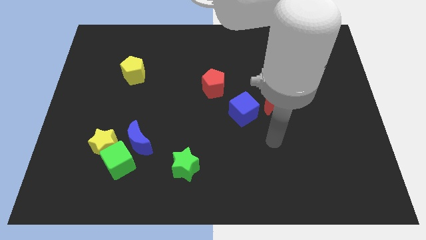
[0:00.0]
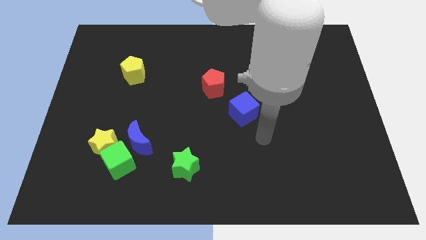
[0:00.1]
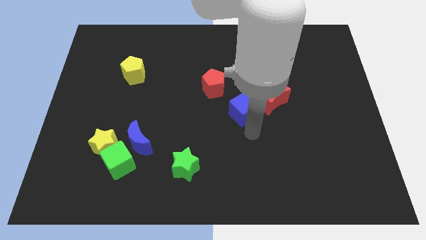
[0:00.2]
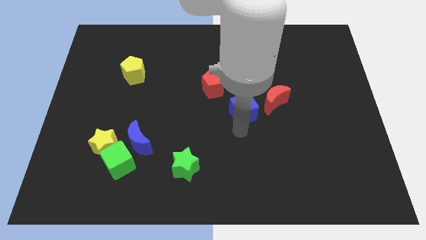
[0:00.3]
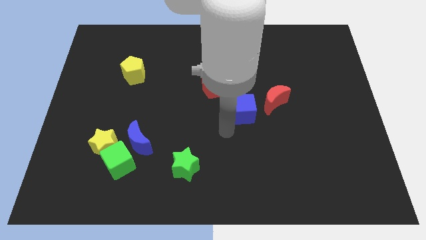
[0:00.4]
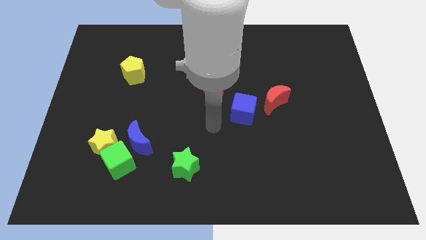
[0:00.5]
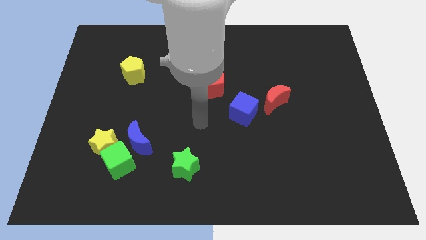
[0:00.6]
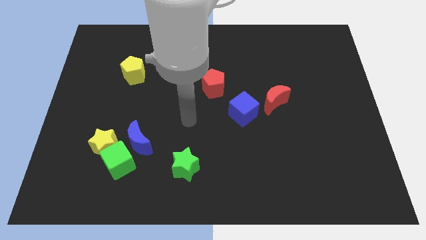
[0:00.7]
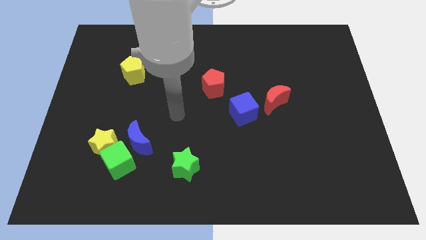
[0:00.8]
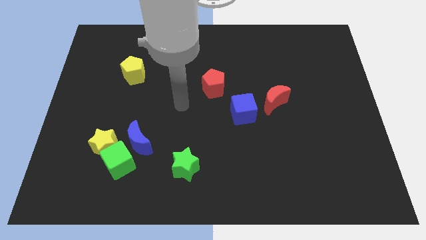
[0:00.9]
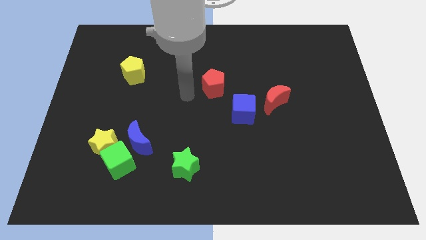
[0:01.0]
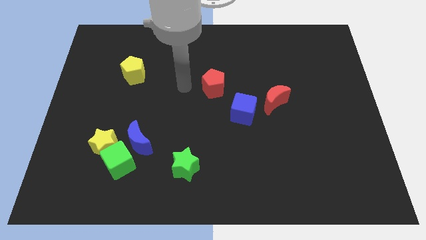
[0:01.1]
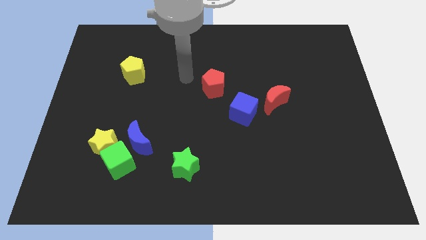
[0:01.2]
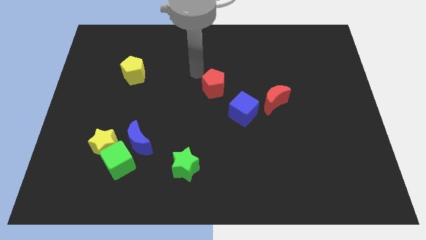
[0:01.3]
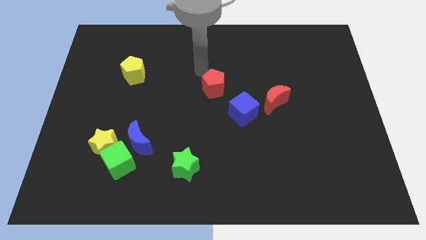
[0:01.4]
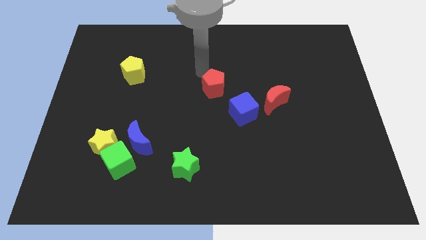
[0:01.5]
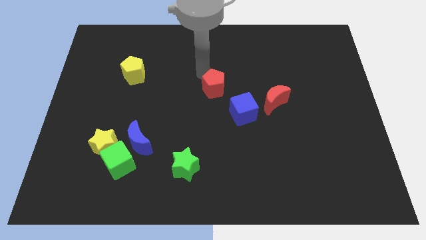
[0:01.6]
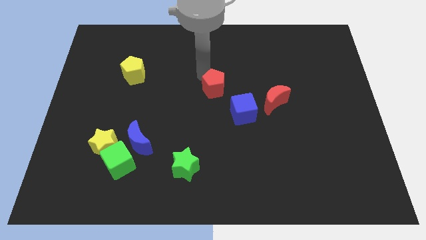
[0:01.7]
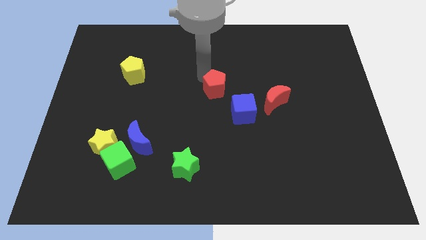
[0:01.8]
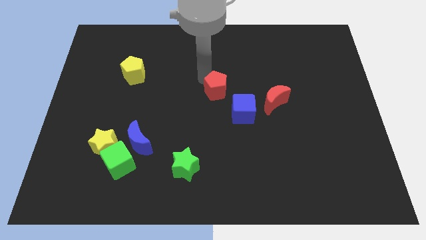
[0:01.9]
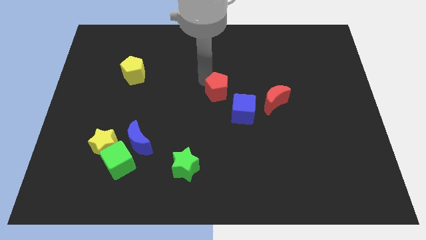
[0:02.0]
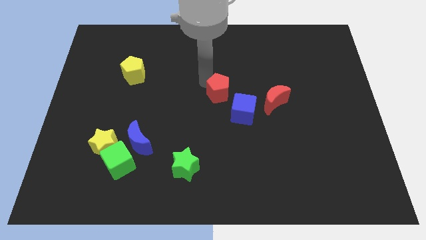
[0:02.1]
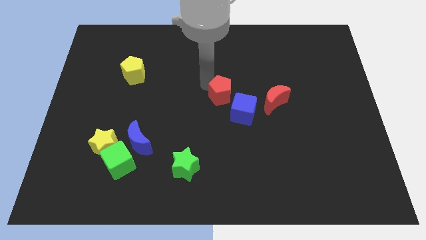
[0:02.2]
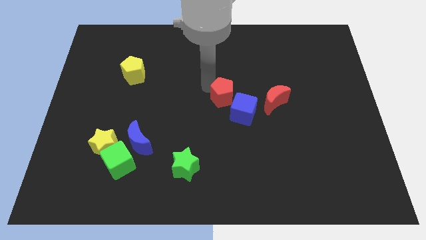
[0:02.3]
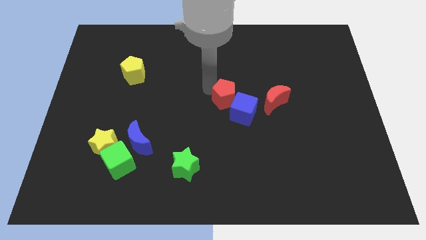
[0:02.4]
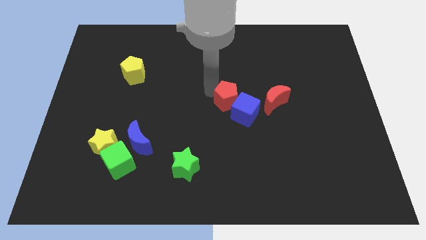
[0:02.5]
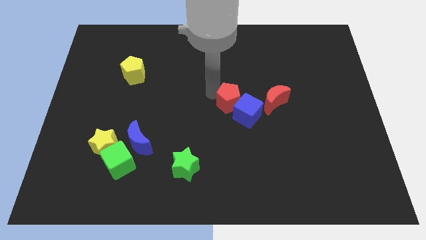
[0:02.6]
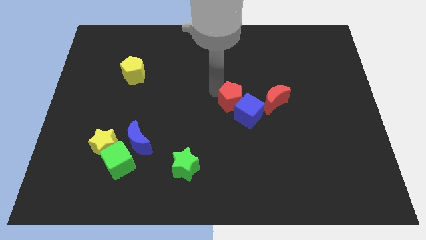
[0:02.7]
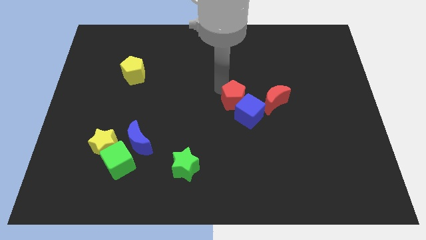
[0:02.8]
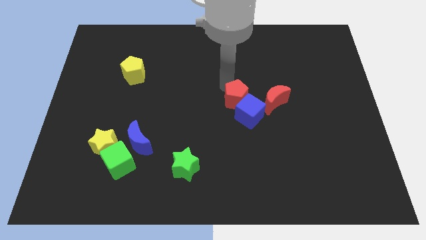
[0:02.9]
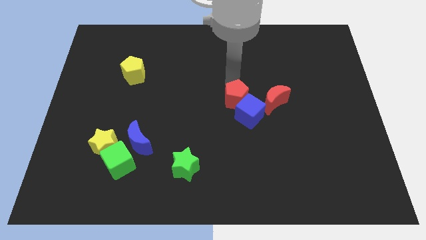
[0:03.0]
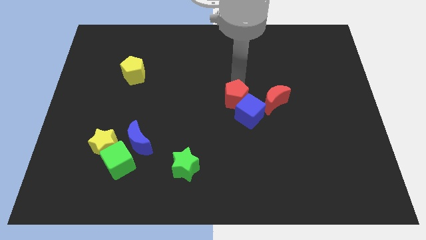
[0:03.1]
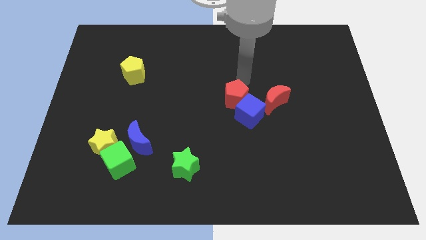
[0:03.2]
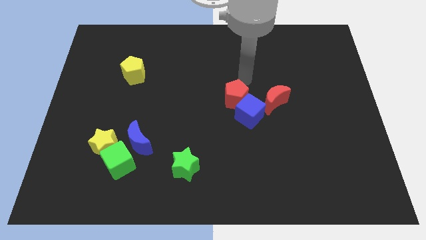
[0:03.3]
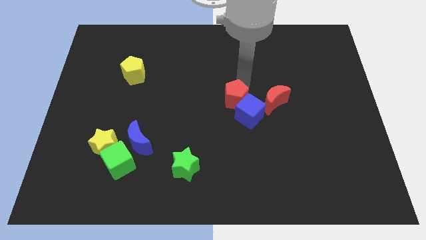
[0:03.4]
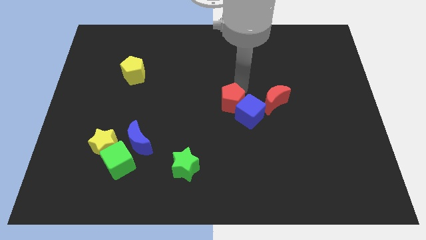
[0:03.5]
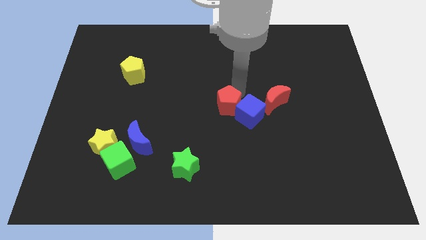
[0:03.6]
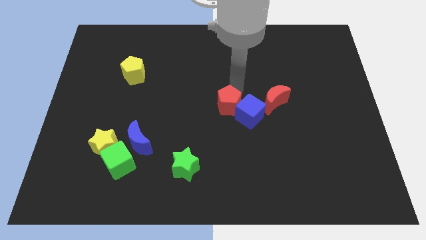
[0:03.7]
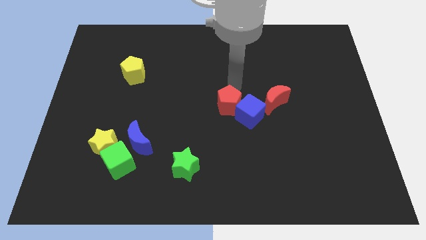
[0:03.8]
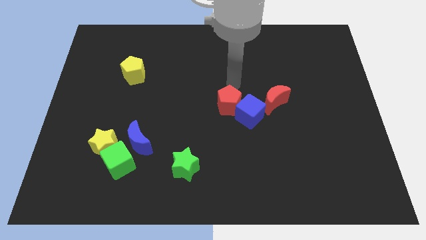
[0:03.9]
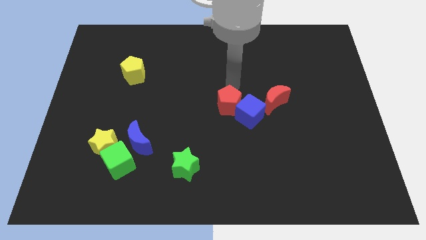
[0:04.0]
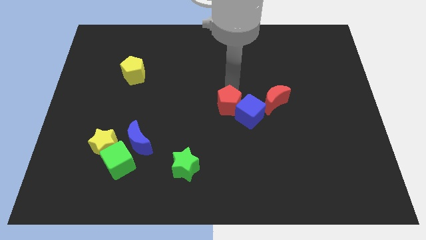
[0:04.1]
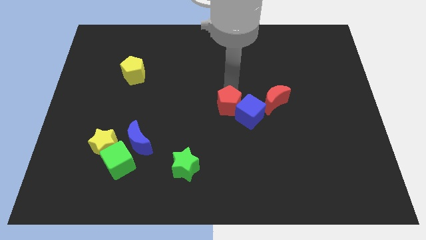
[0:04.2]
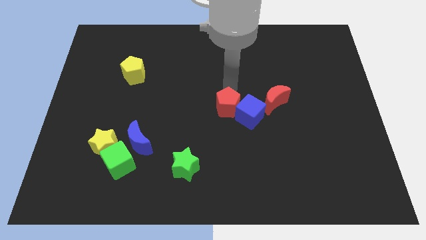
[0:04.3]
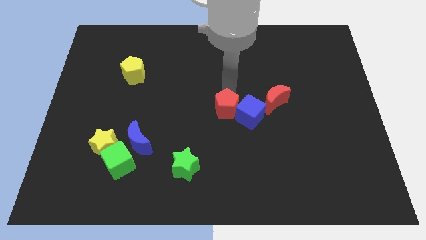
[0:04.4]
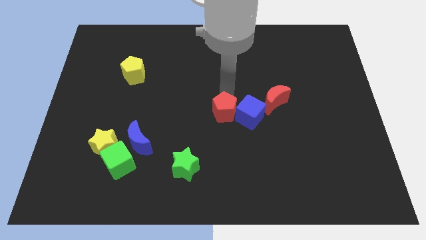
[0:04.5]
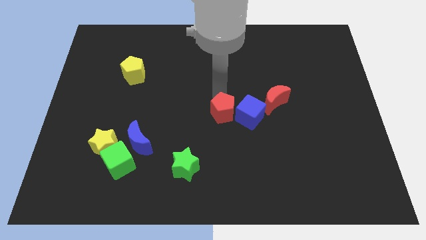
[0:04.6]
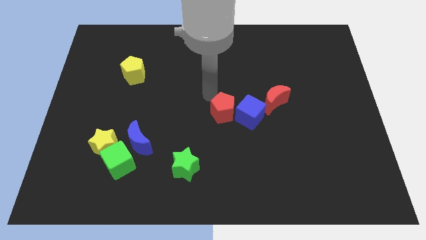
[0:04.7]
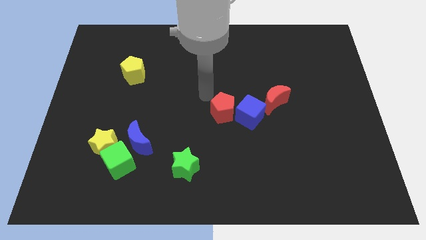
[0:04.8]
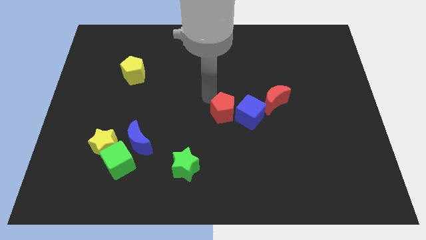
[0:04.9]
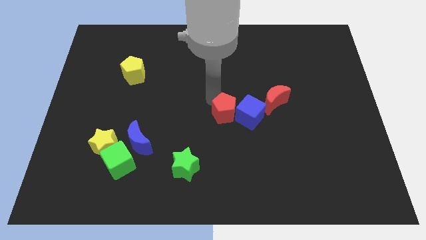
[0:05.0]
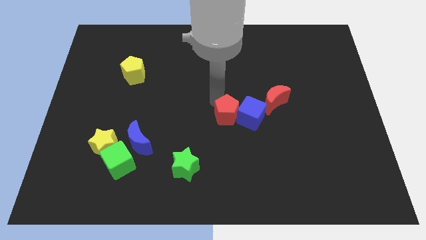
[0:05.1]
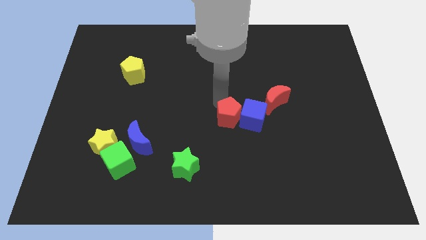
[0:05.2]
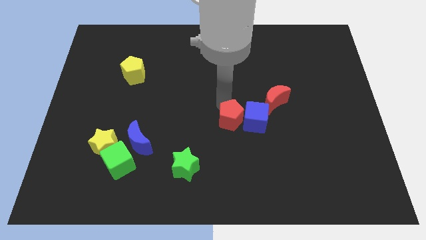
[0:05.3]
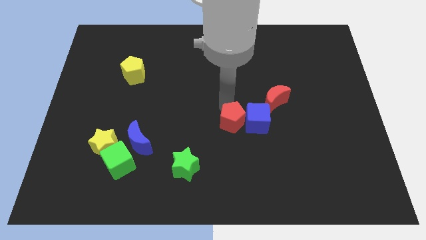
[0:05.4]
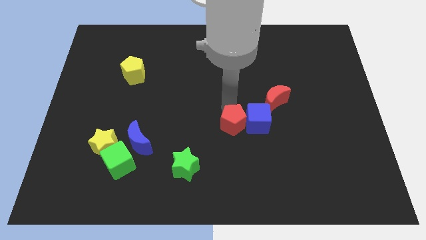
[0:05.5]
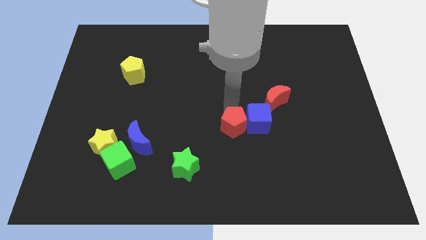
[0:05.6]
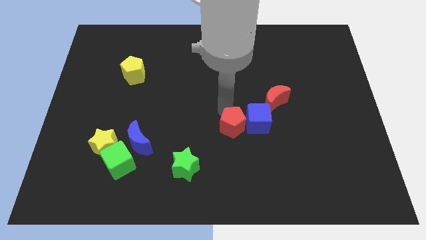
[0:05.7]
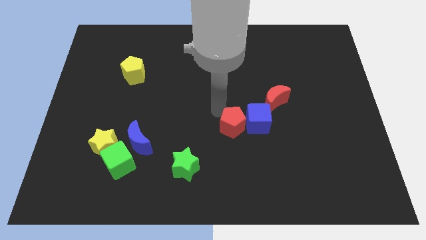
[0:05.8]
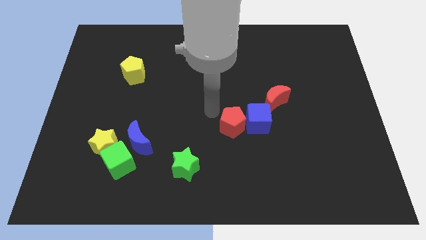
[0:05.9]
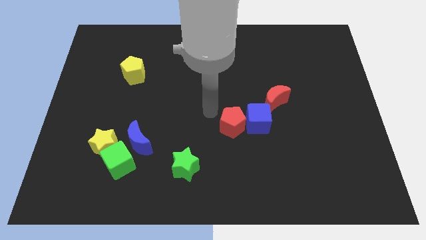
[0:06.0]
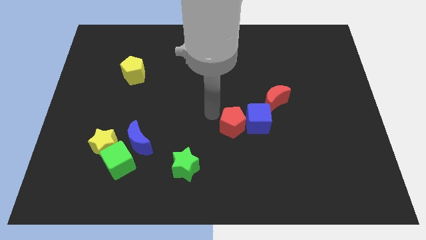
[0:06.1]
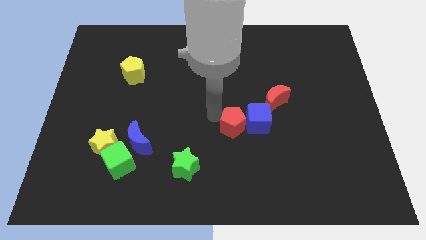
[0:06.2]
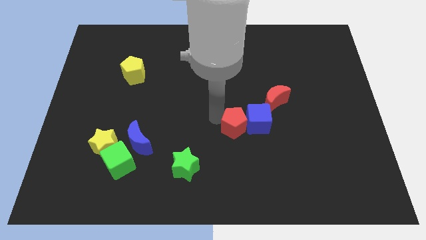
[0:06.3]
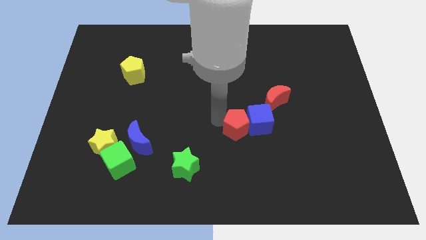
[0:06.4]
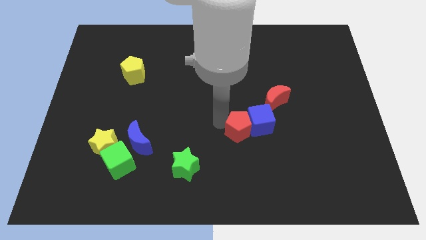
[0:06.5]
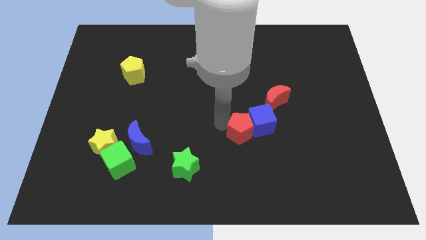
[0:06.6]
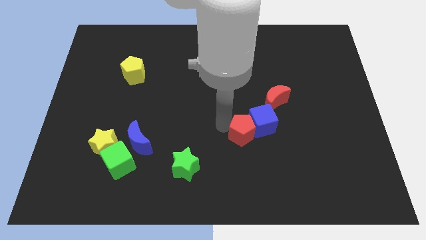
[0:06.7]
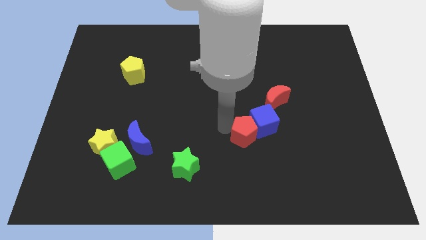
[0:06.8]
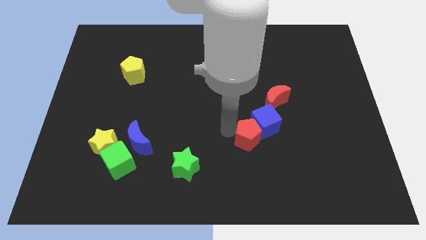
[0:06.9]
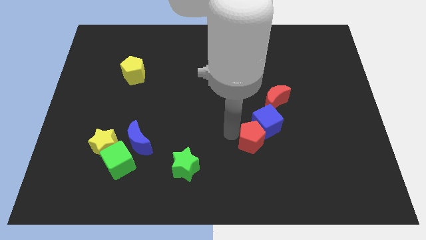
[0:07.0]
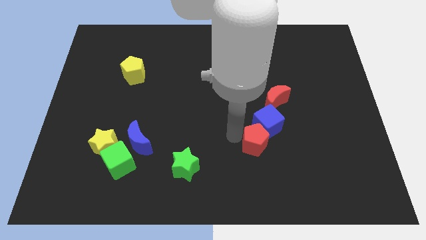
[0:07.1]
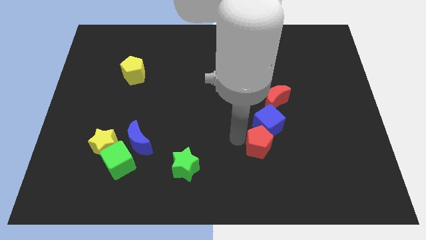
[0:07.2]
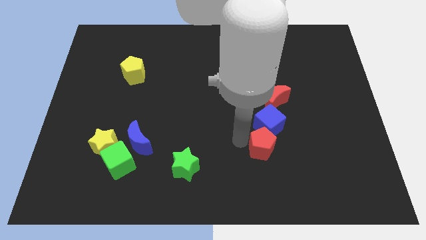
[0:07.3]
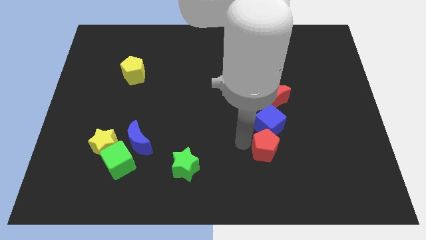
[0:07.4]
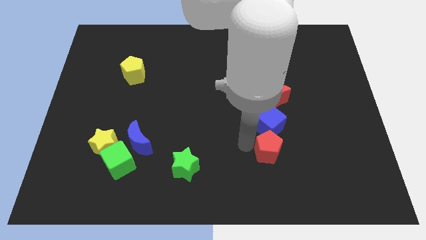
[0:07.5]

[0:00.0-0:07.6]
move the red pentagon downwards and right

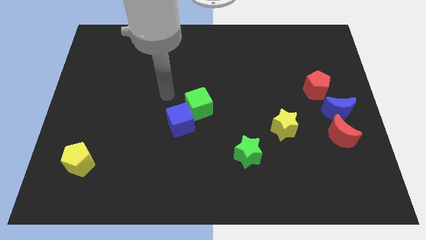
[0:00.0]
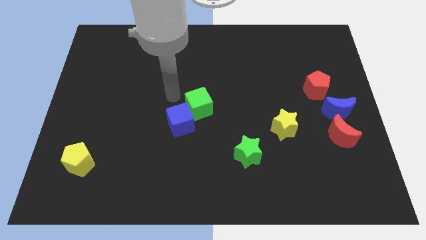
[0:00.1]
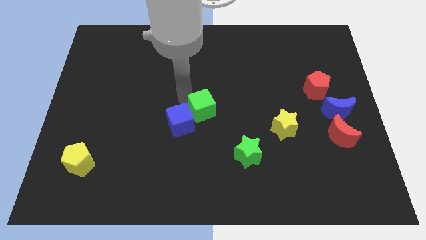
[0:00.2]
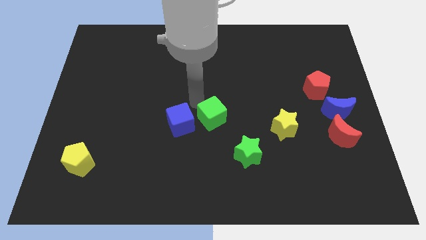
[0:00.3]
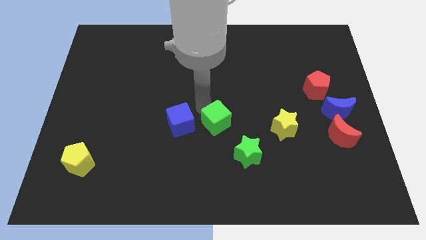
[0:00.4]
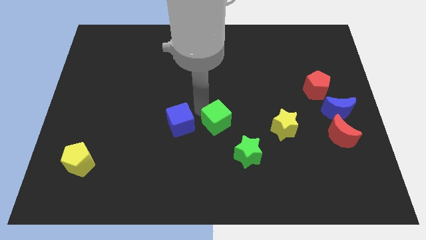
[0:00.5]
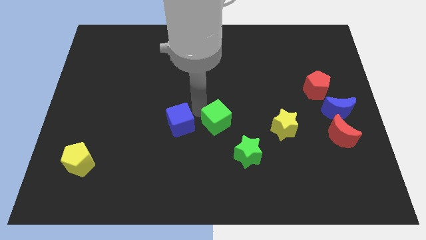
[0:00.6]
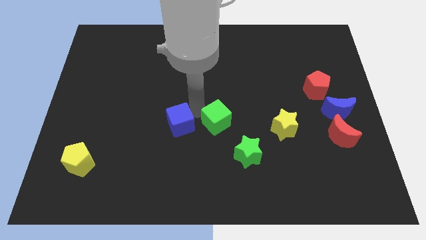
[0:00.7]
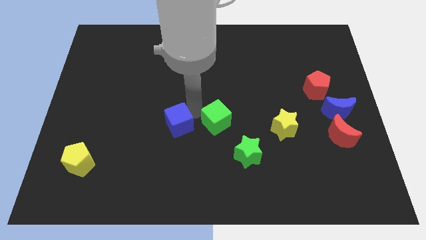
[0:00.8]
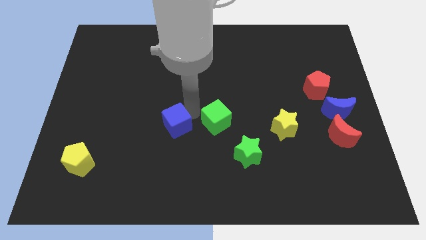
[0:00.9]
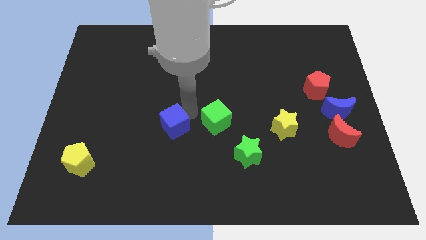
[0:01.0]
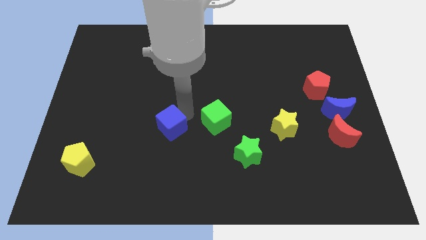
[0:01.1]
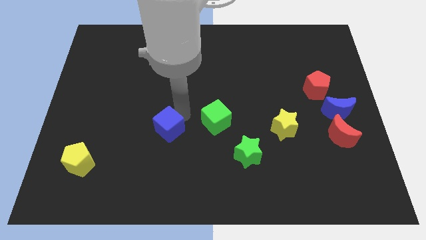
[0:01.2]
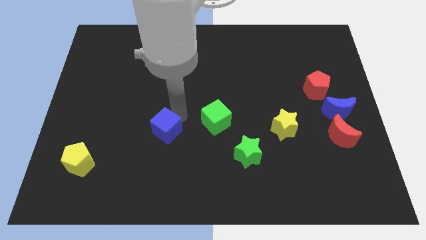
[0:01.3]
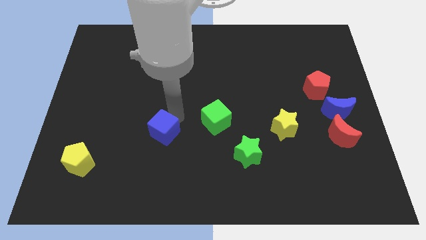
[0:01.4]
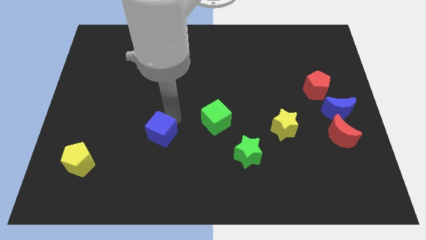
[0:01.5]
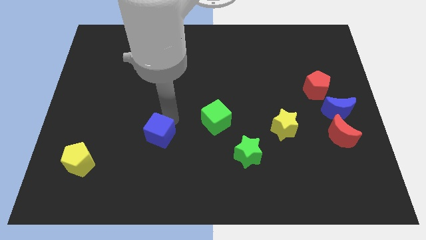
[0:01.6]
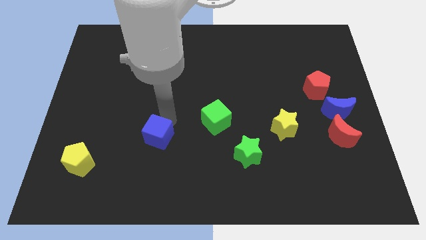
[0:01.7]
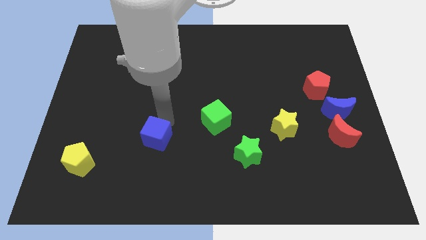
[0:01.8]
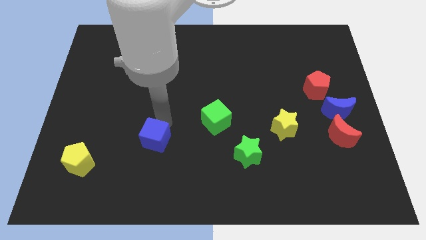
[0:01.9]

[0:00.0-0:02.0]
move the blue cube down and then left somewhat
